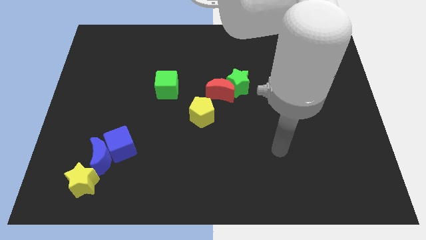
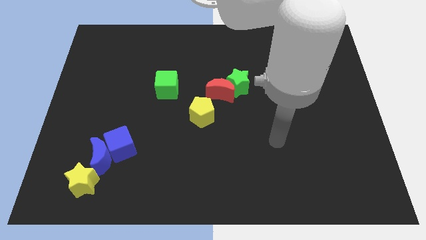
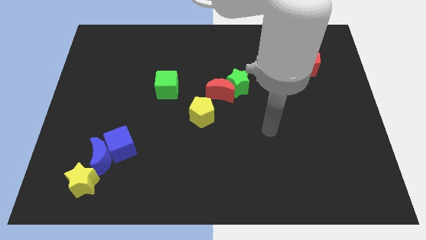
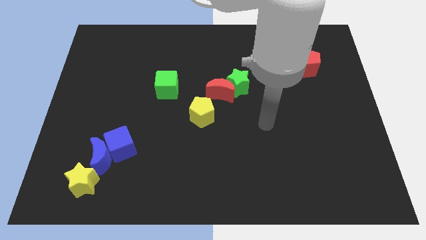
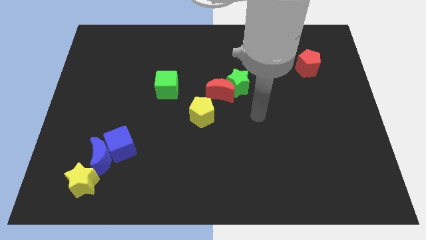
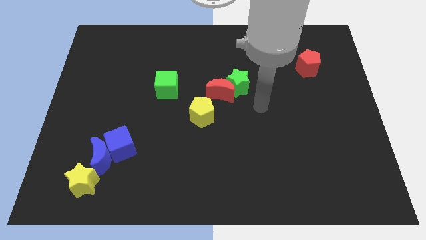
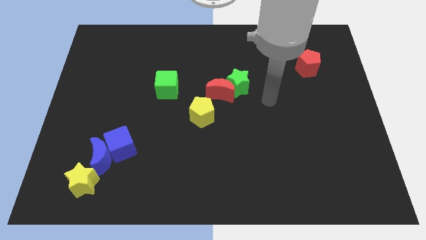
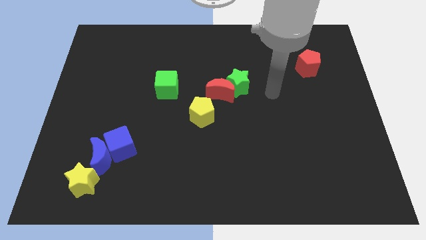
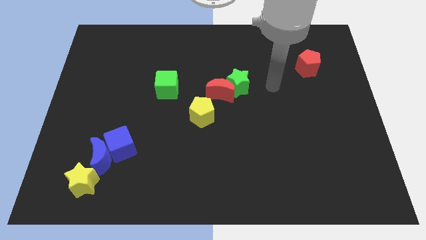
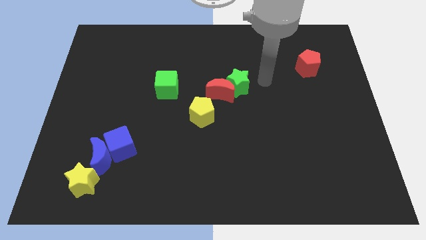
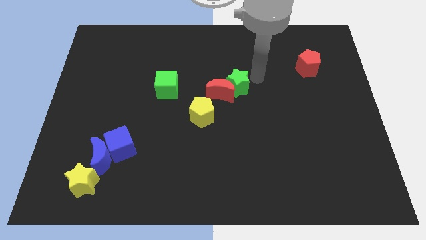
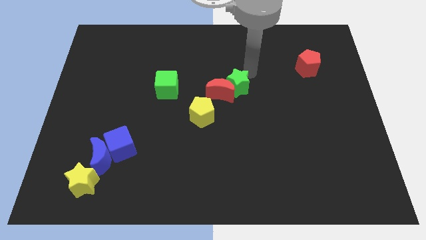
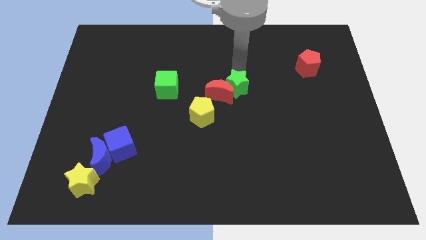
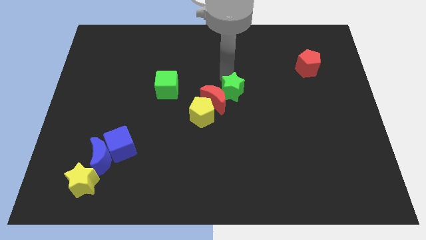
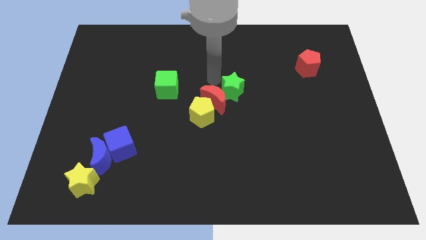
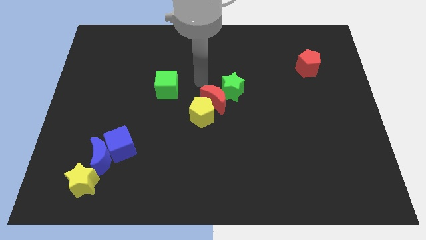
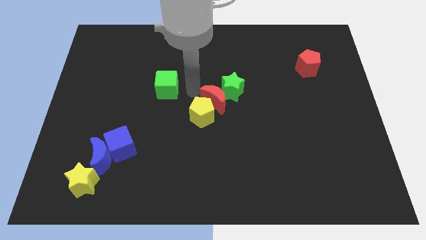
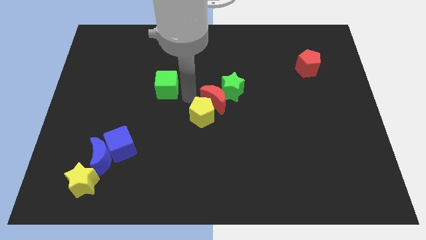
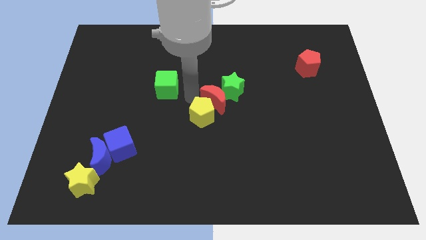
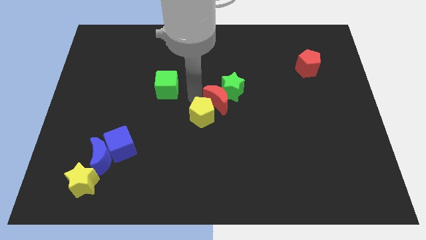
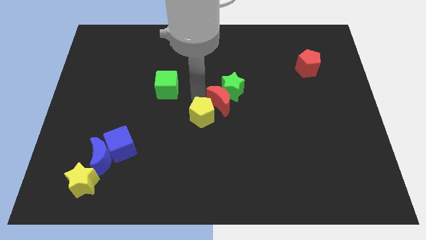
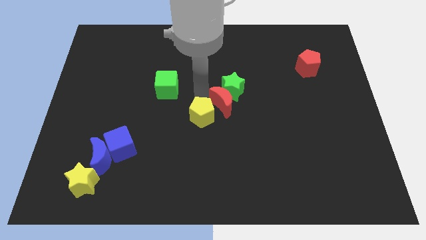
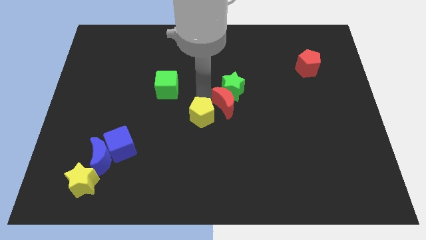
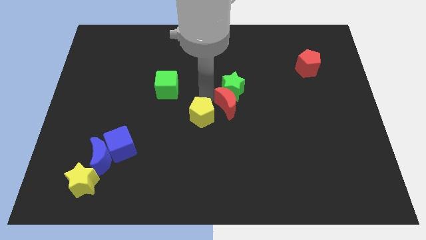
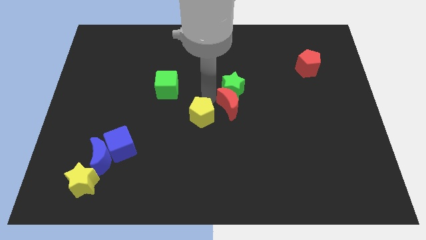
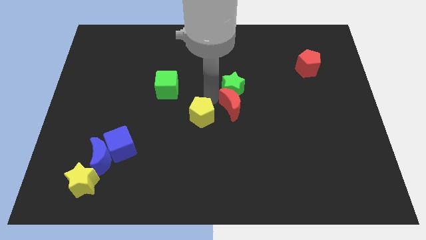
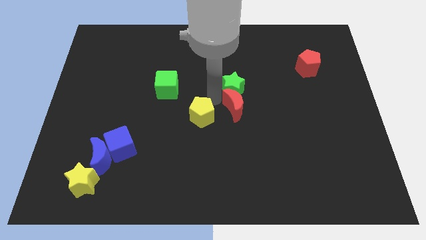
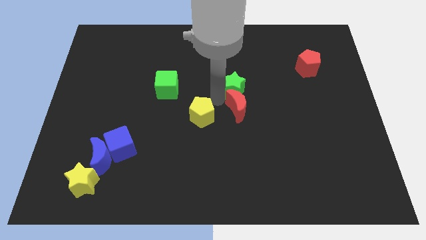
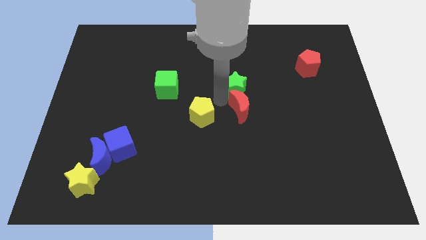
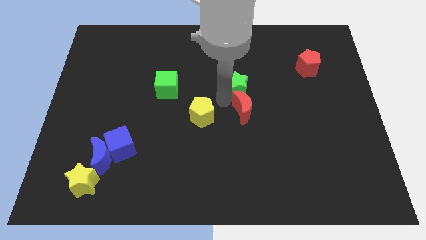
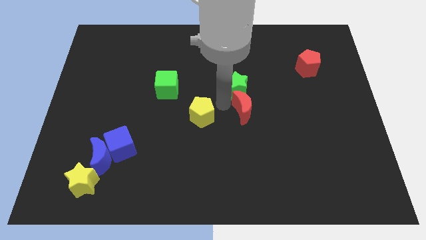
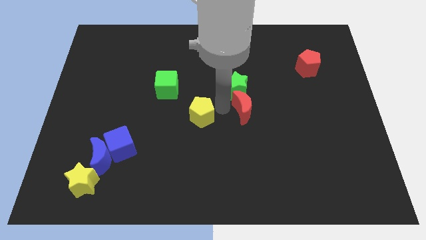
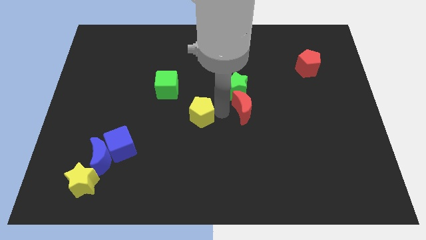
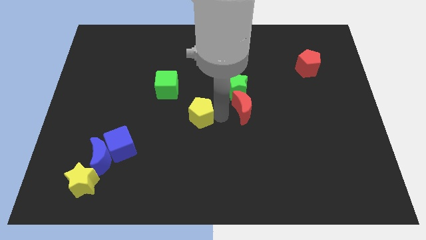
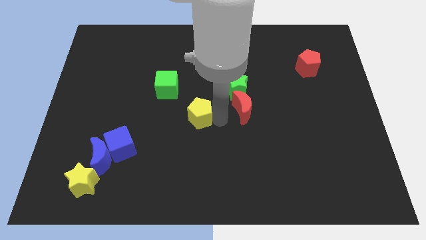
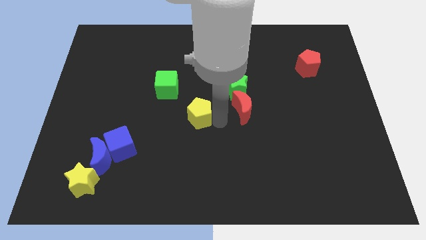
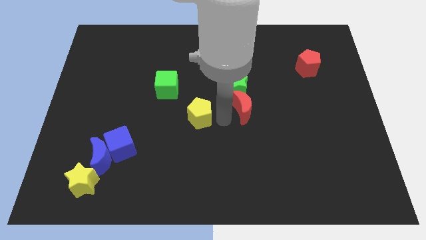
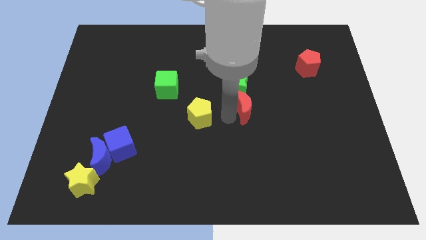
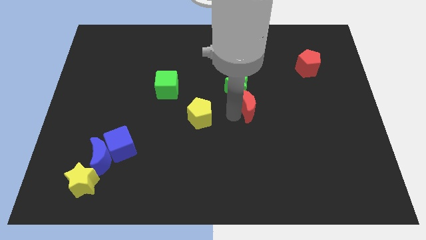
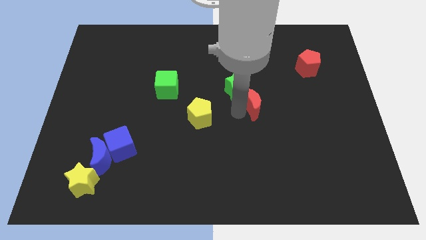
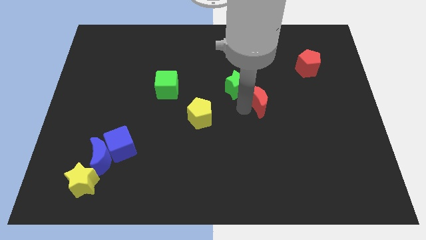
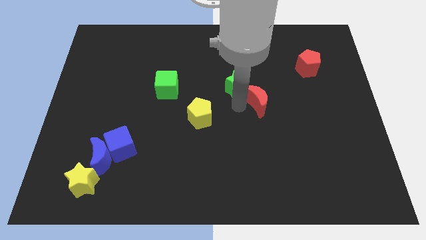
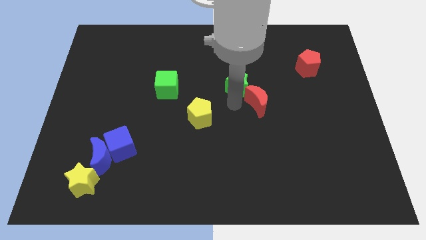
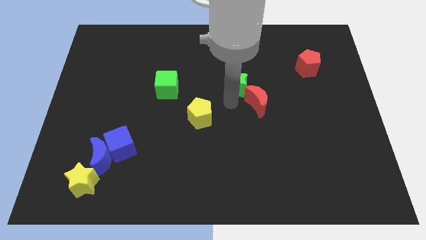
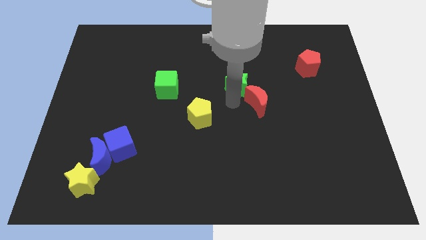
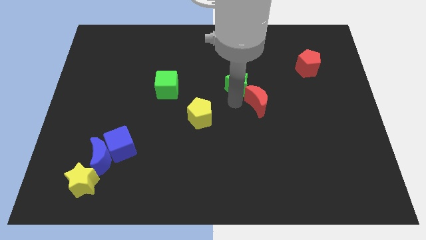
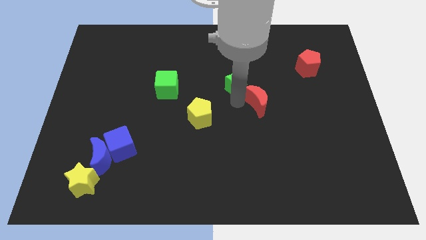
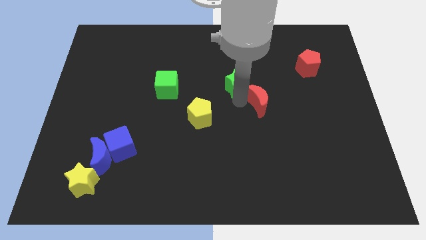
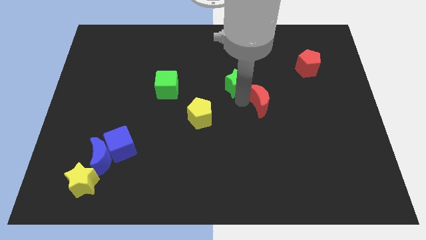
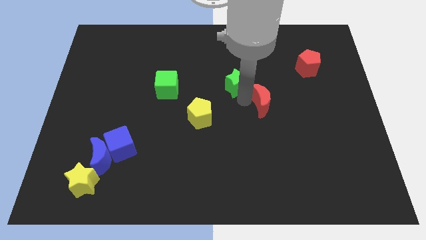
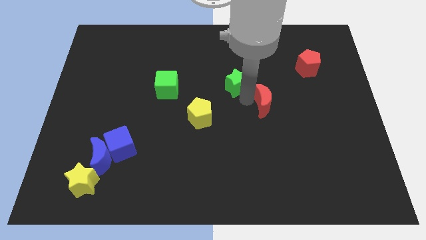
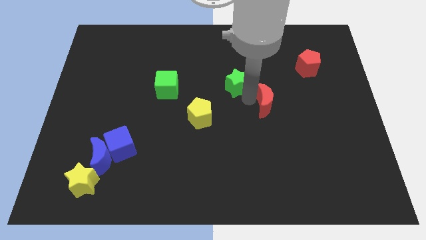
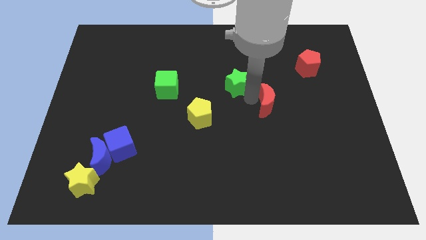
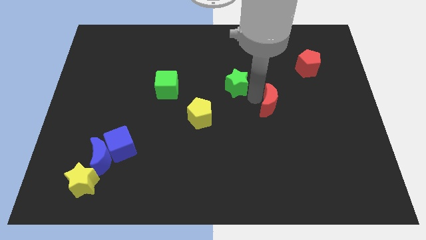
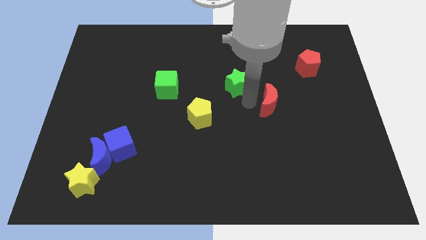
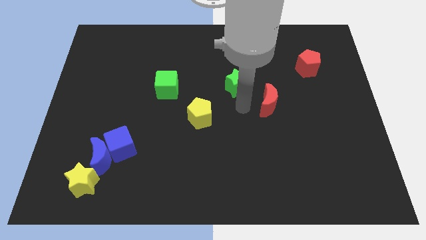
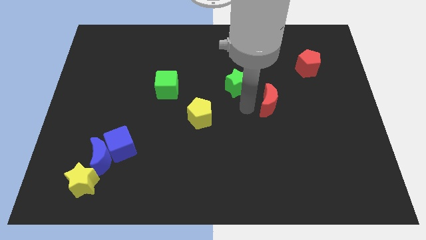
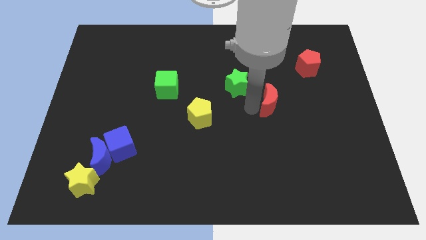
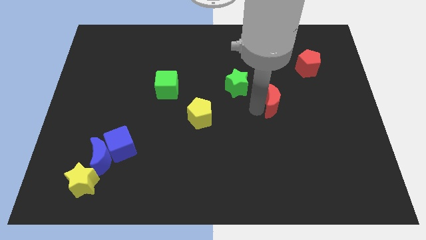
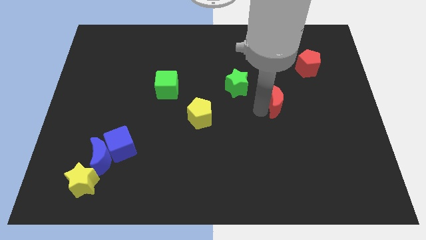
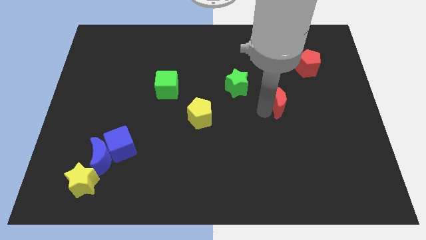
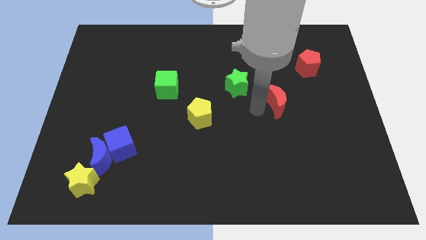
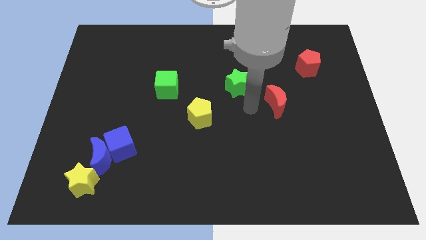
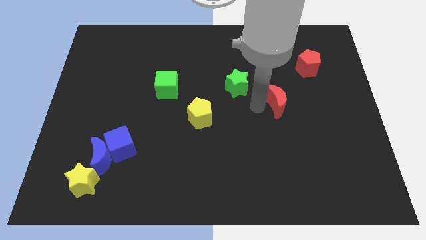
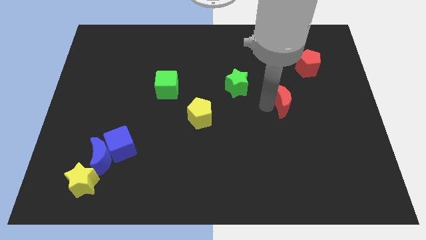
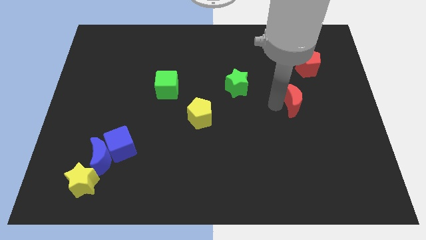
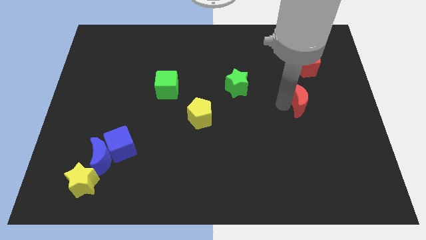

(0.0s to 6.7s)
push the red moon to the bottom side of the red pentagon

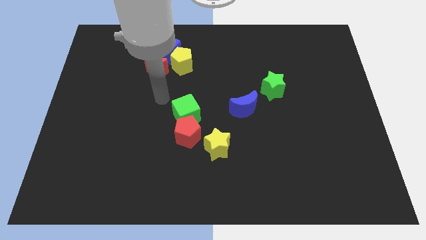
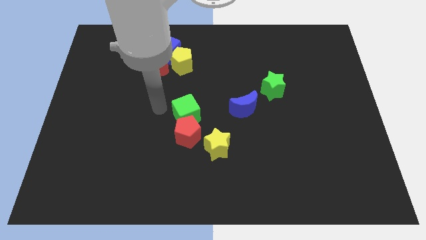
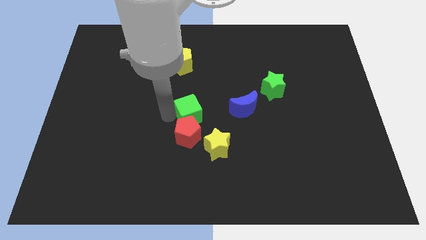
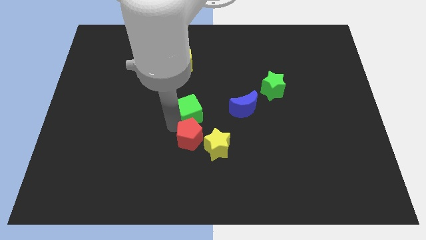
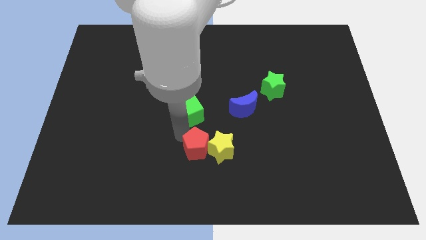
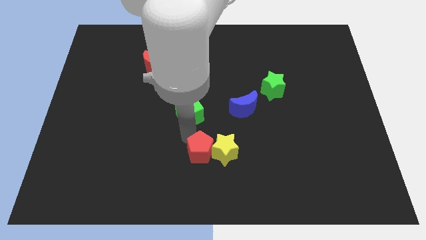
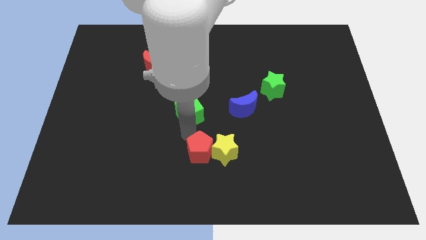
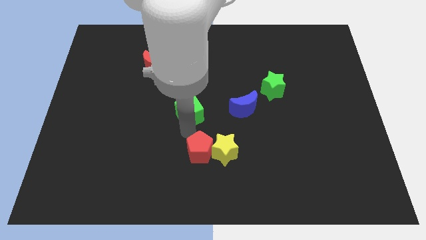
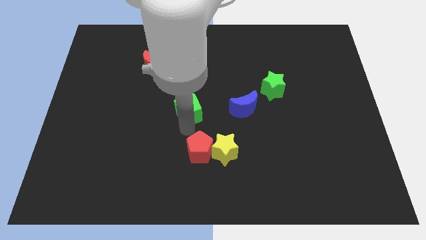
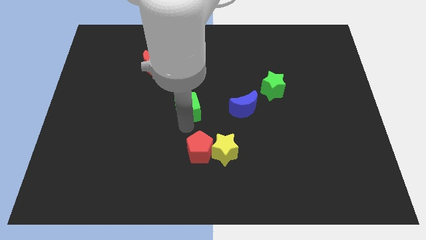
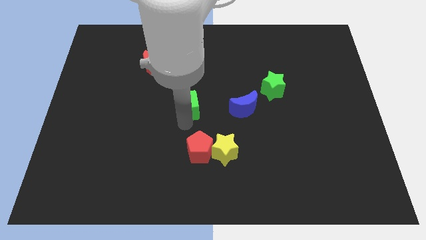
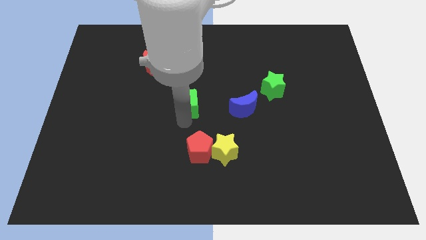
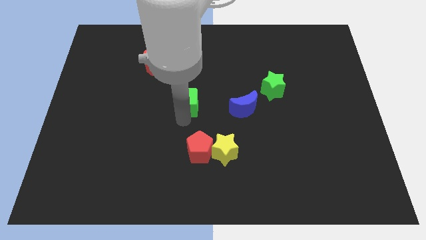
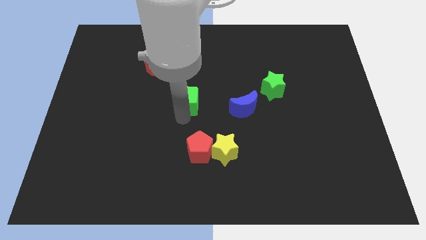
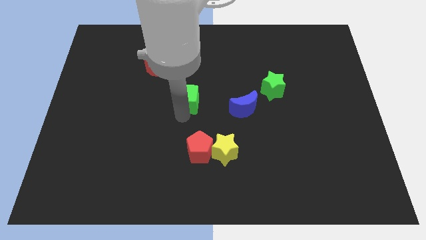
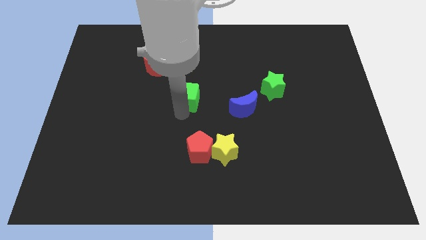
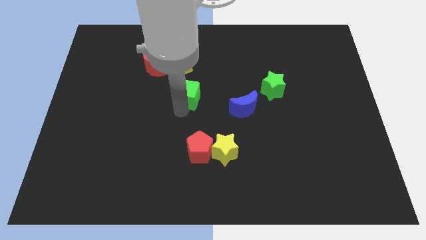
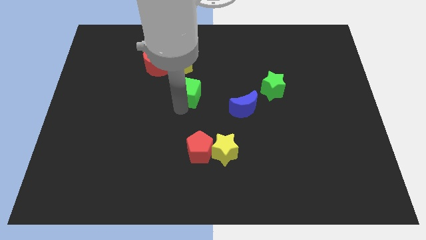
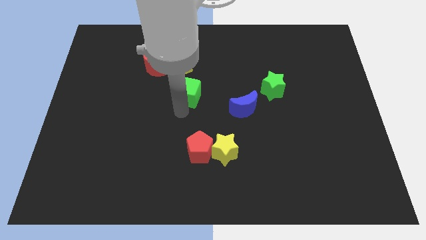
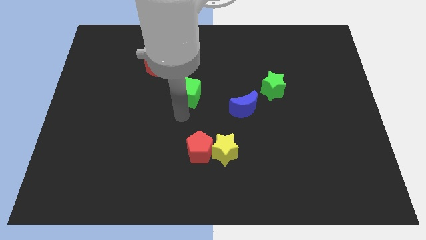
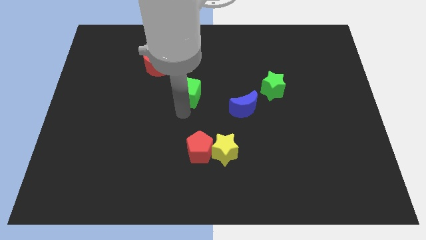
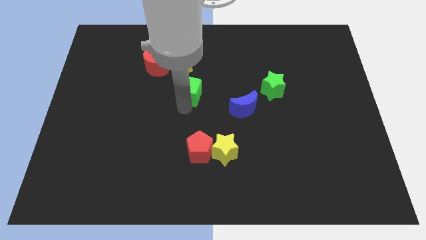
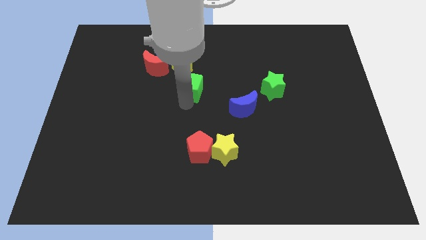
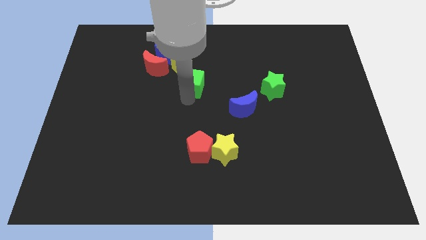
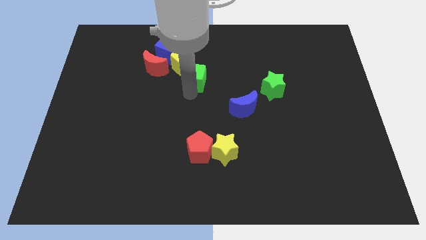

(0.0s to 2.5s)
push the green cube to the right of the red moon
